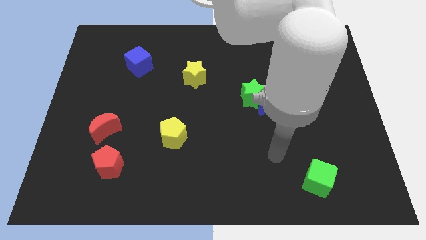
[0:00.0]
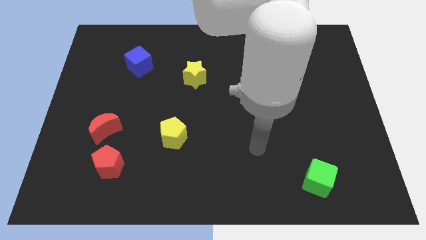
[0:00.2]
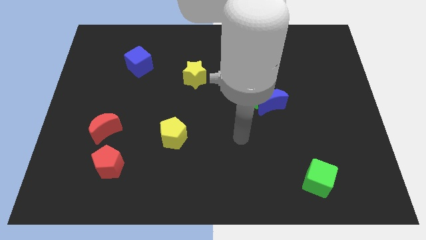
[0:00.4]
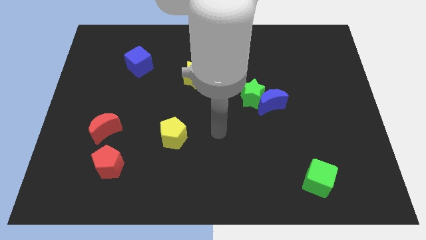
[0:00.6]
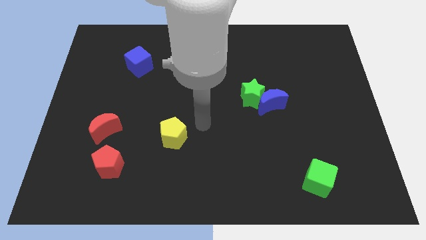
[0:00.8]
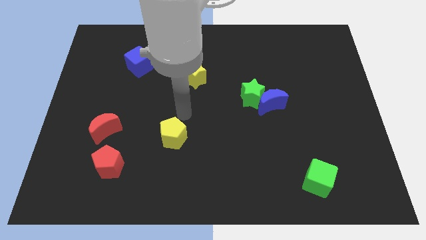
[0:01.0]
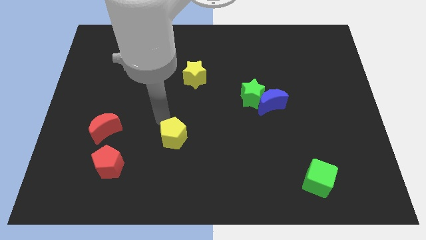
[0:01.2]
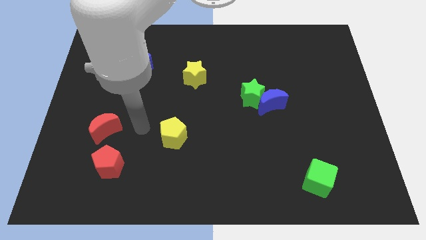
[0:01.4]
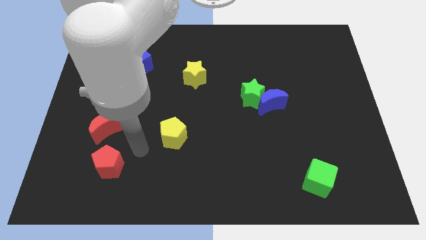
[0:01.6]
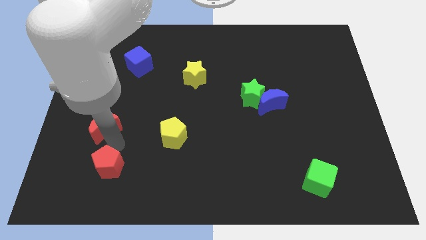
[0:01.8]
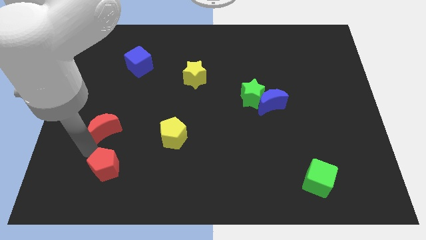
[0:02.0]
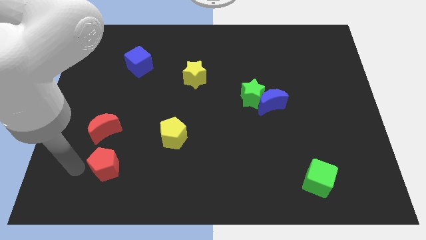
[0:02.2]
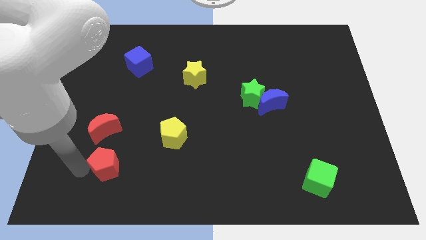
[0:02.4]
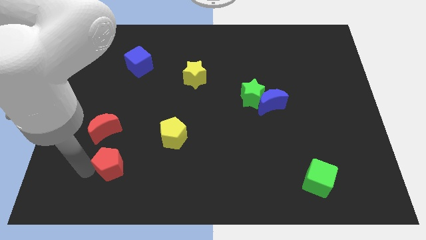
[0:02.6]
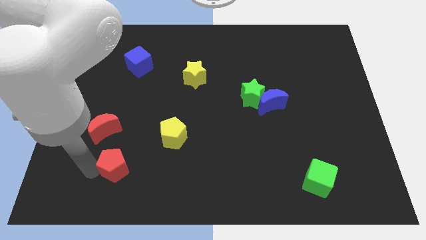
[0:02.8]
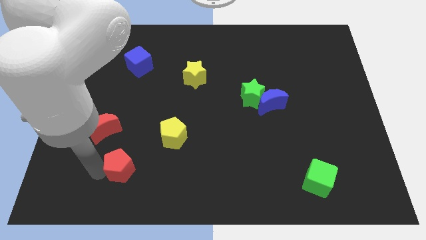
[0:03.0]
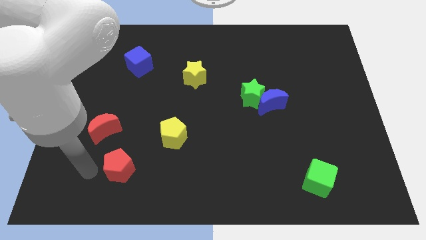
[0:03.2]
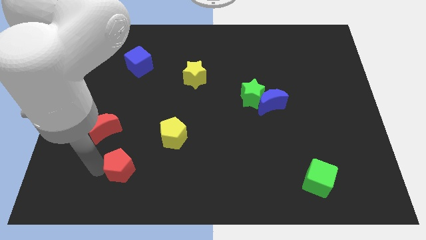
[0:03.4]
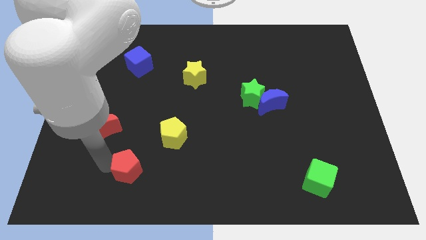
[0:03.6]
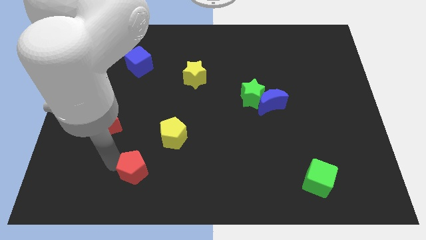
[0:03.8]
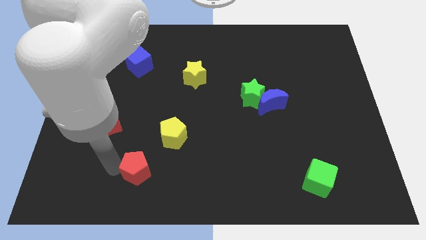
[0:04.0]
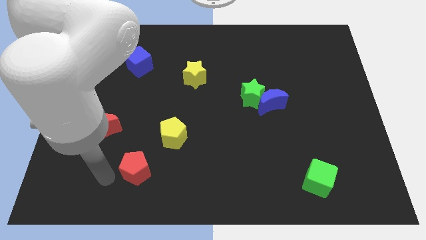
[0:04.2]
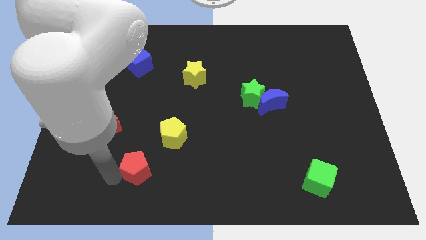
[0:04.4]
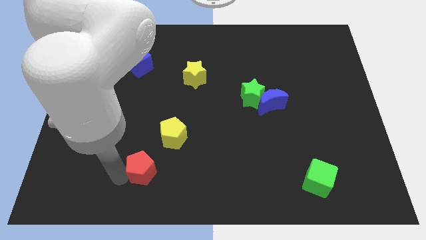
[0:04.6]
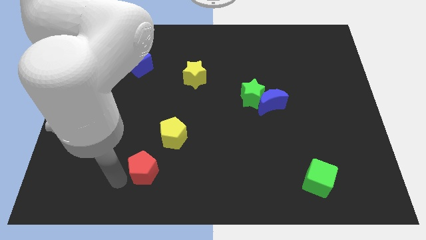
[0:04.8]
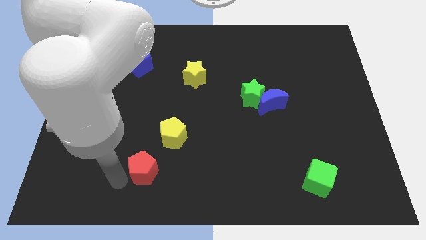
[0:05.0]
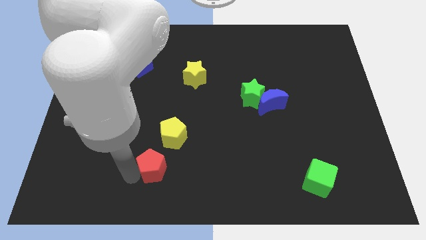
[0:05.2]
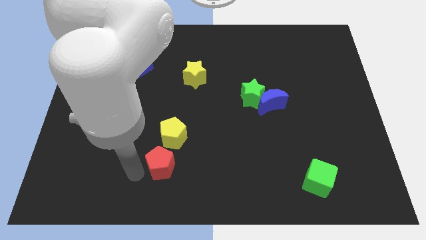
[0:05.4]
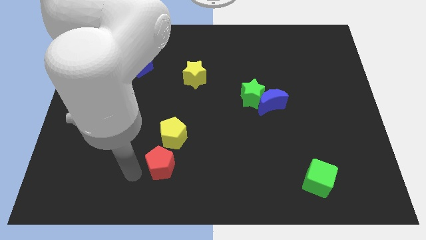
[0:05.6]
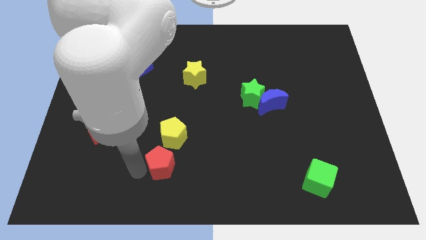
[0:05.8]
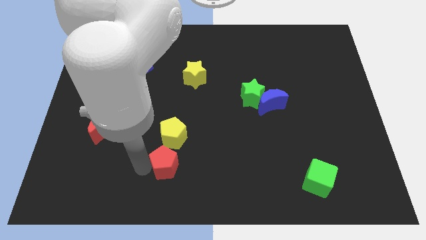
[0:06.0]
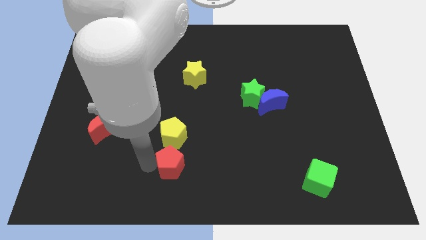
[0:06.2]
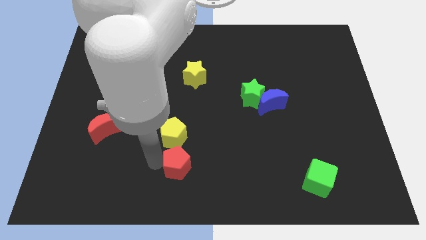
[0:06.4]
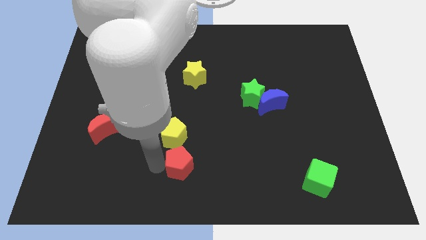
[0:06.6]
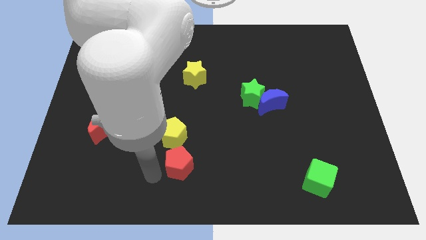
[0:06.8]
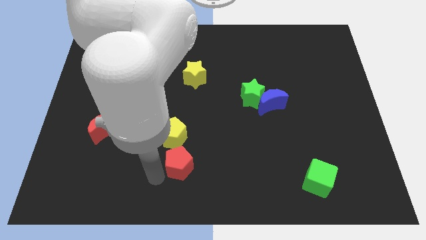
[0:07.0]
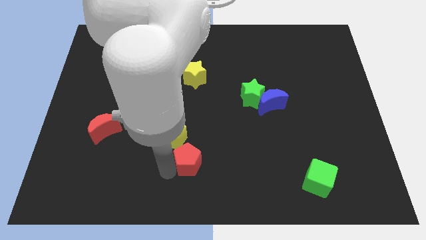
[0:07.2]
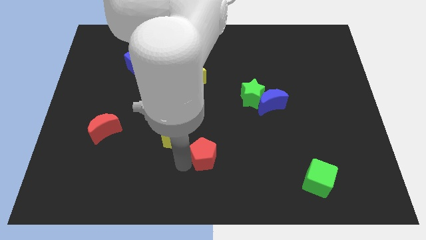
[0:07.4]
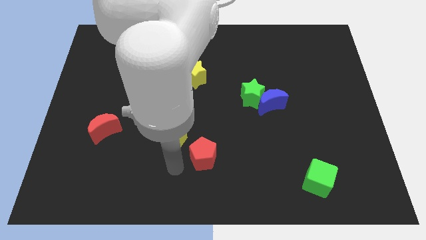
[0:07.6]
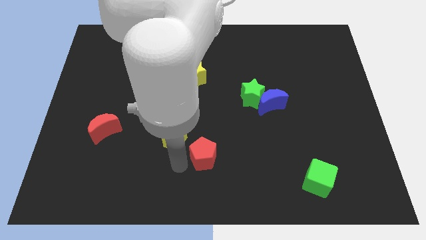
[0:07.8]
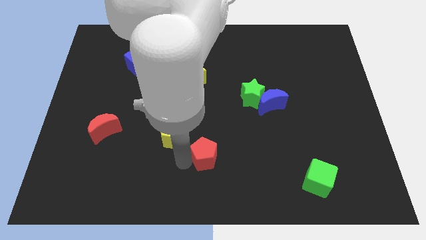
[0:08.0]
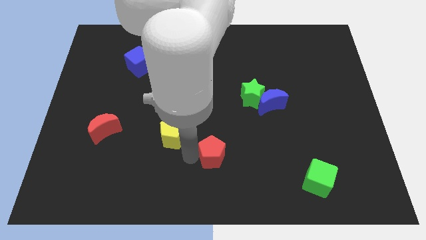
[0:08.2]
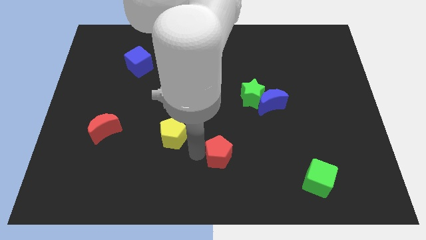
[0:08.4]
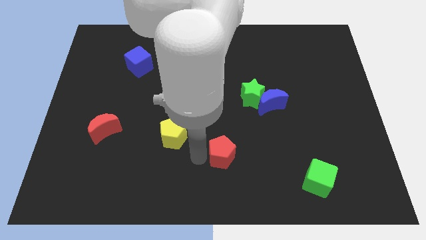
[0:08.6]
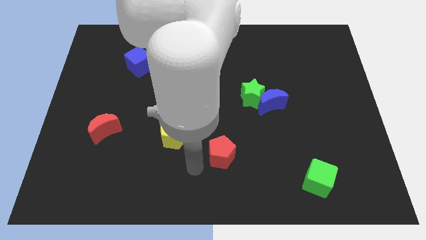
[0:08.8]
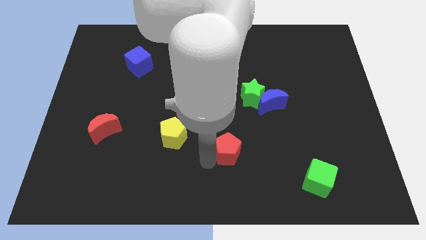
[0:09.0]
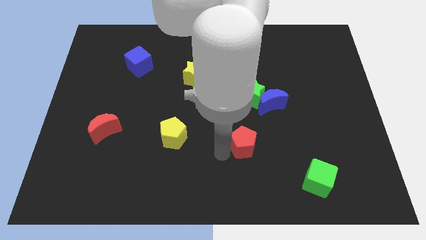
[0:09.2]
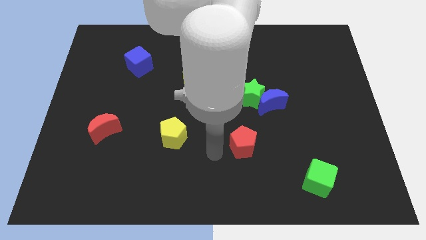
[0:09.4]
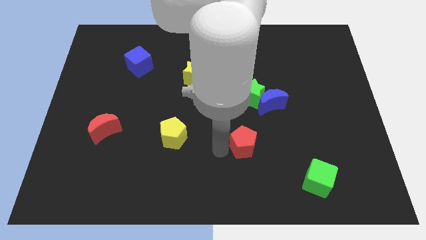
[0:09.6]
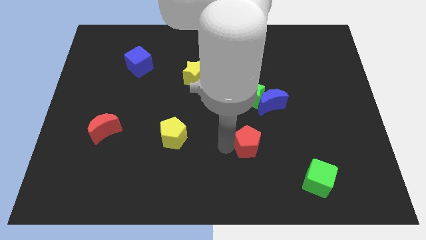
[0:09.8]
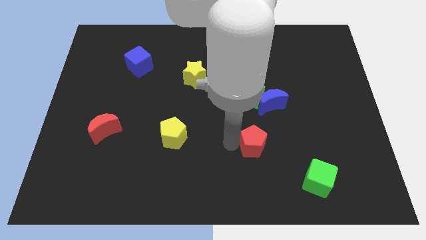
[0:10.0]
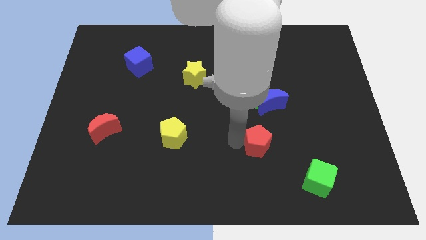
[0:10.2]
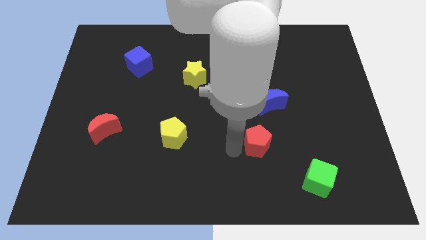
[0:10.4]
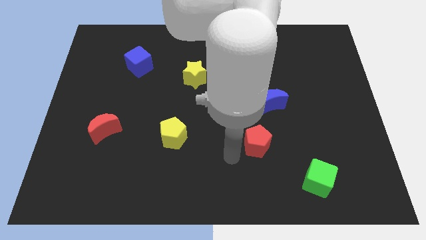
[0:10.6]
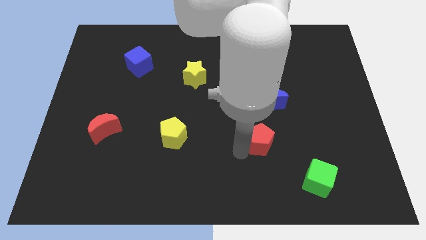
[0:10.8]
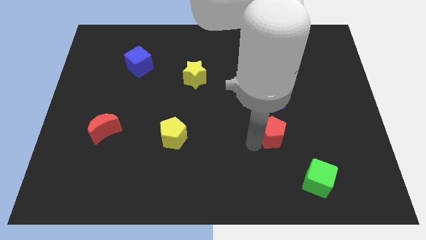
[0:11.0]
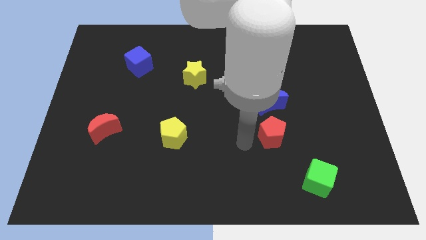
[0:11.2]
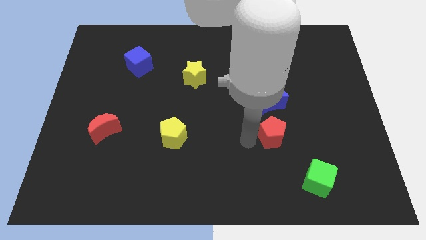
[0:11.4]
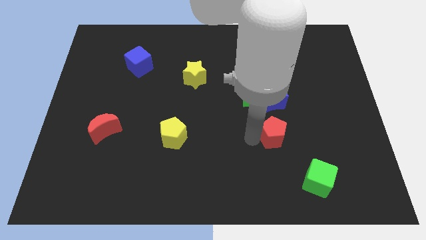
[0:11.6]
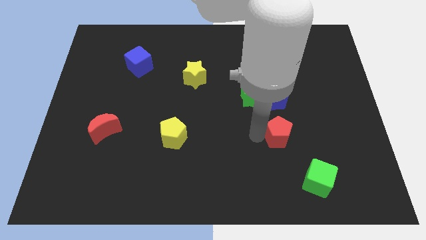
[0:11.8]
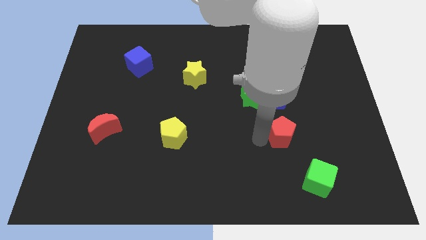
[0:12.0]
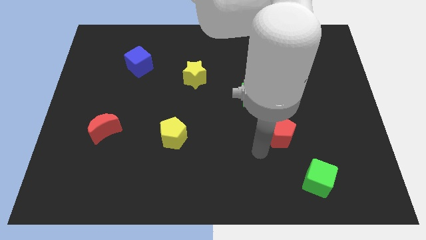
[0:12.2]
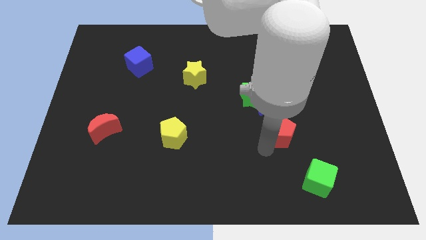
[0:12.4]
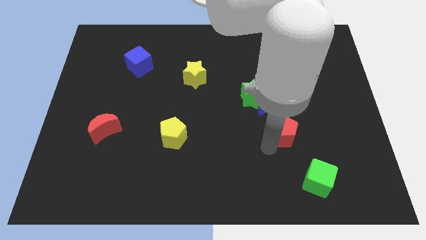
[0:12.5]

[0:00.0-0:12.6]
slide the red pentagon to the bottom right side of the blue moon
